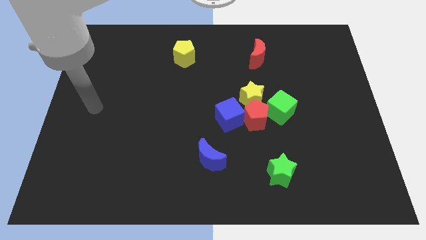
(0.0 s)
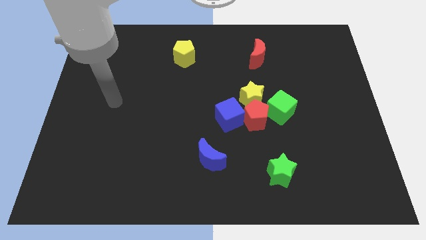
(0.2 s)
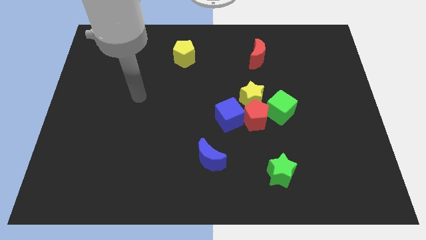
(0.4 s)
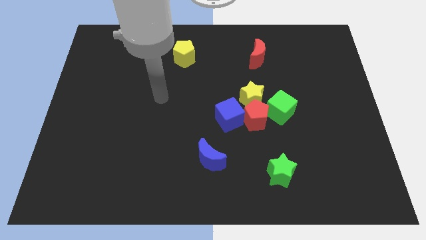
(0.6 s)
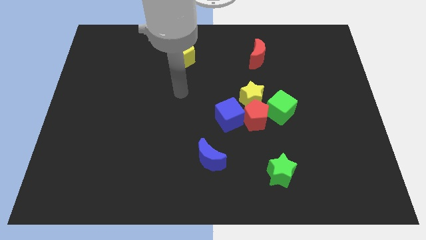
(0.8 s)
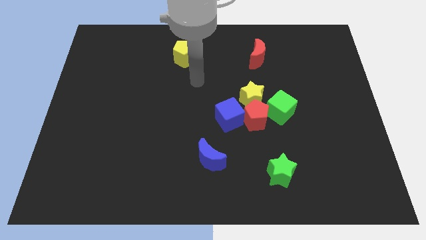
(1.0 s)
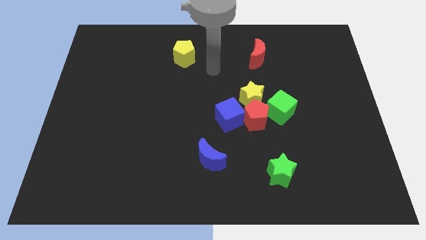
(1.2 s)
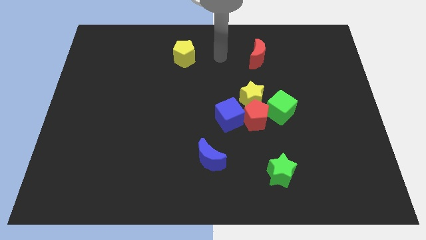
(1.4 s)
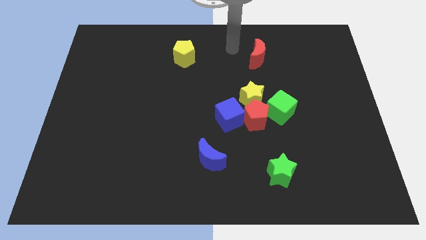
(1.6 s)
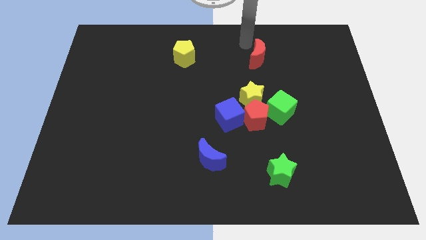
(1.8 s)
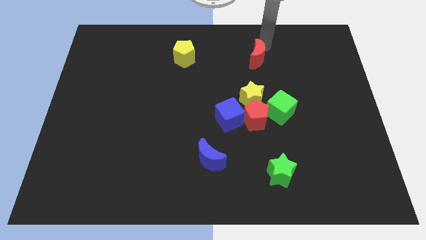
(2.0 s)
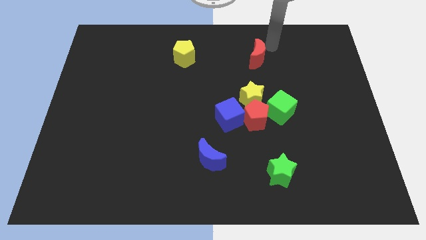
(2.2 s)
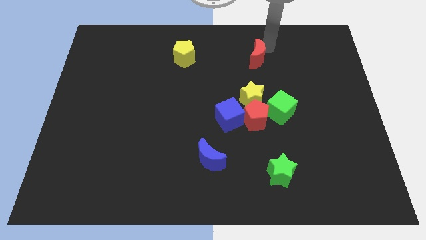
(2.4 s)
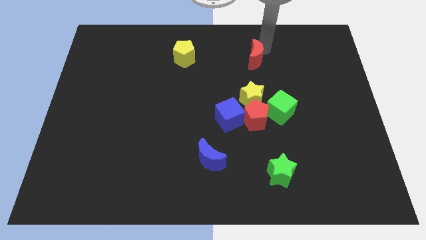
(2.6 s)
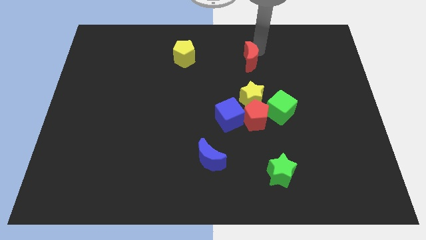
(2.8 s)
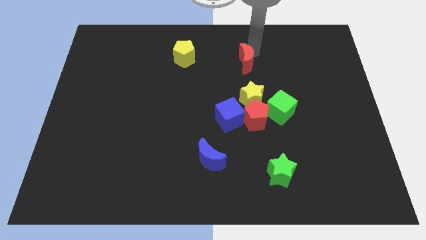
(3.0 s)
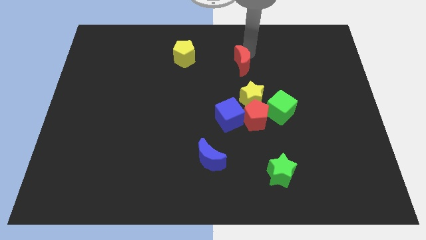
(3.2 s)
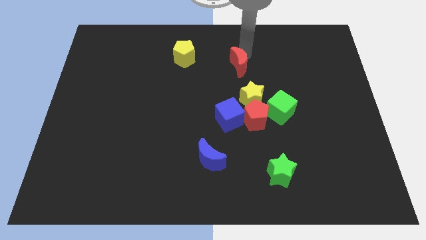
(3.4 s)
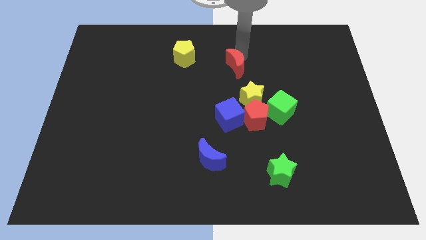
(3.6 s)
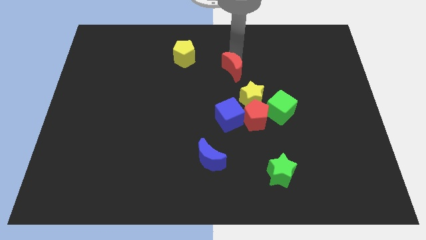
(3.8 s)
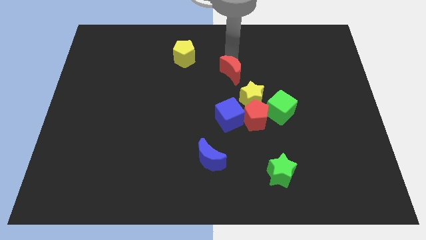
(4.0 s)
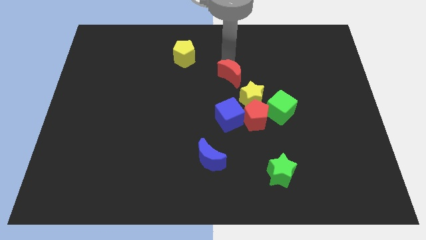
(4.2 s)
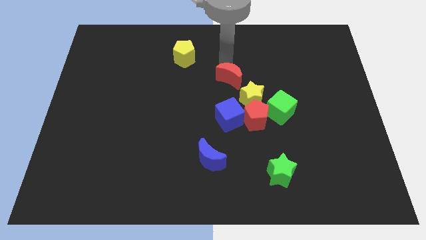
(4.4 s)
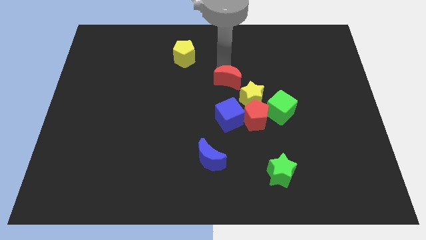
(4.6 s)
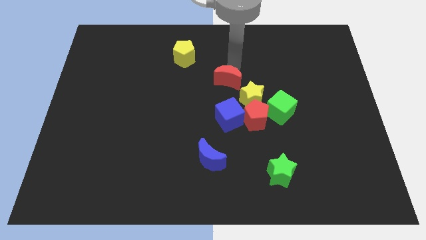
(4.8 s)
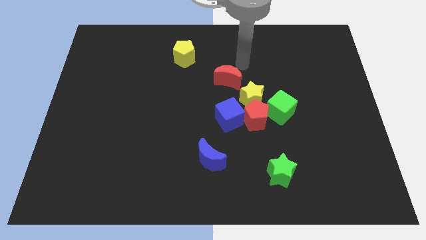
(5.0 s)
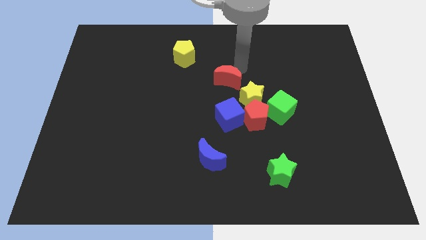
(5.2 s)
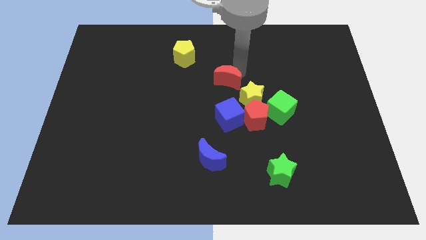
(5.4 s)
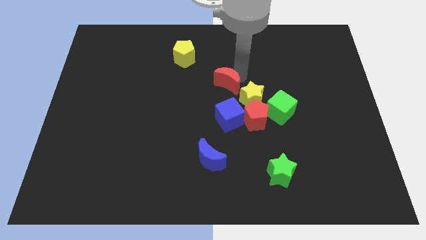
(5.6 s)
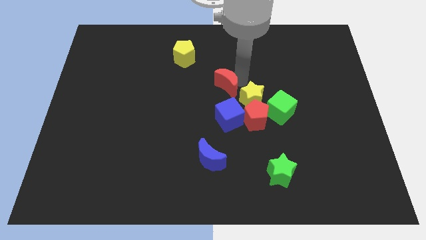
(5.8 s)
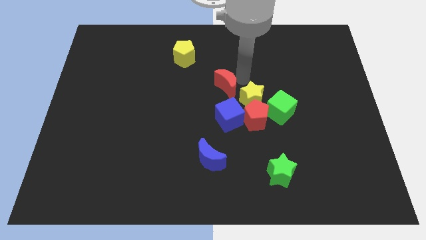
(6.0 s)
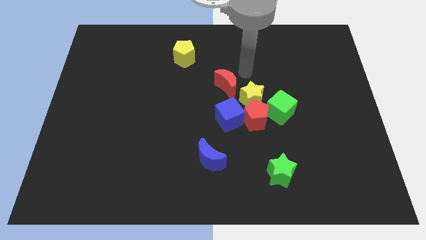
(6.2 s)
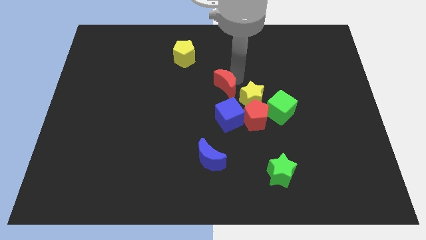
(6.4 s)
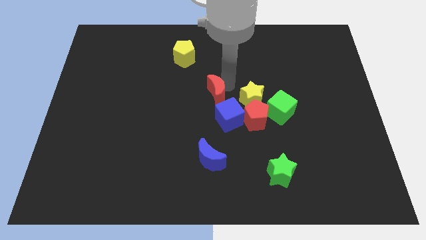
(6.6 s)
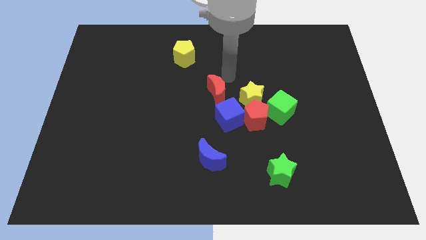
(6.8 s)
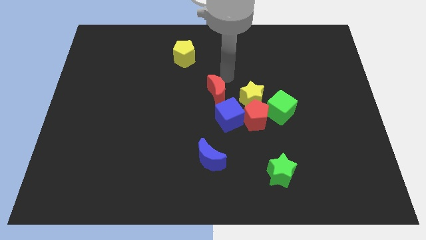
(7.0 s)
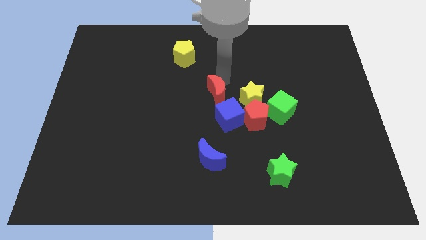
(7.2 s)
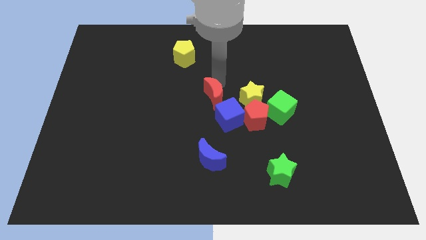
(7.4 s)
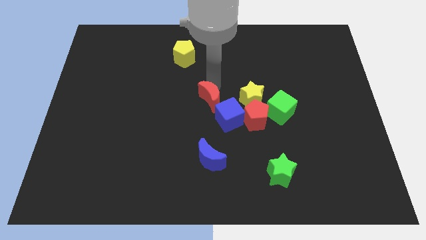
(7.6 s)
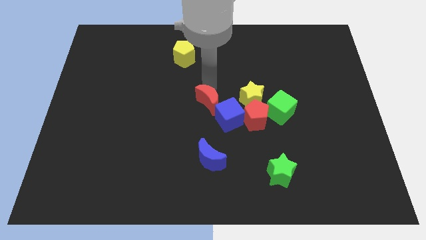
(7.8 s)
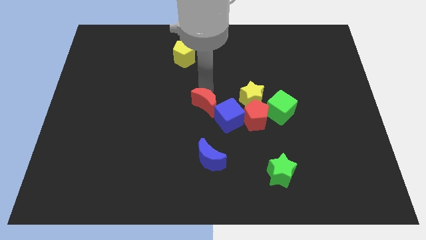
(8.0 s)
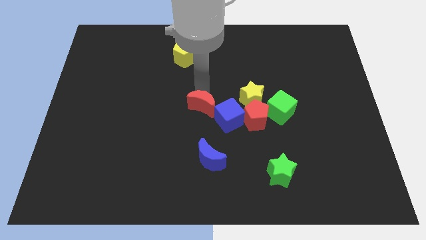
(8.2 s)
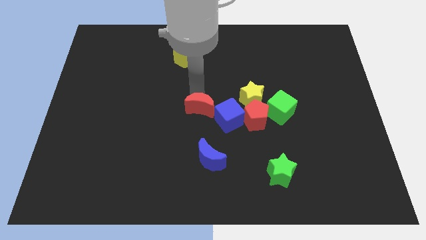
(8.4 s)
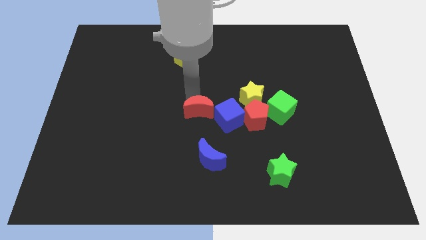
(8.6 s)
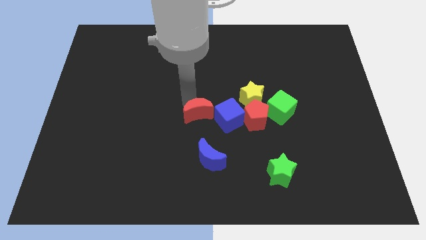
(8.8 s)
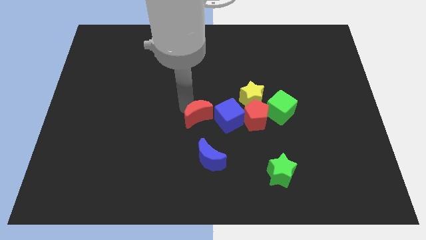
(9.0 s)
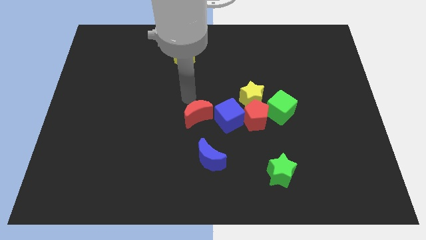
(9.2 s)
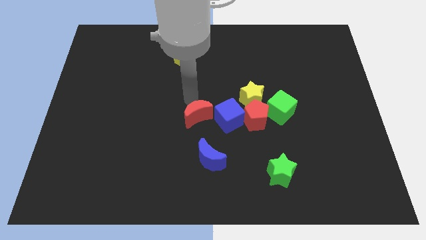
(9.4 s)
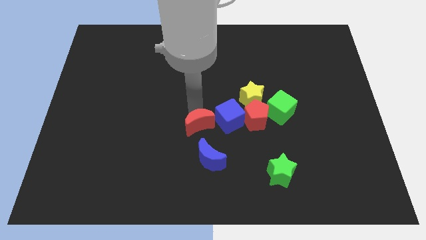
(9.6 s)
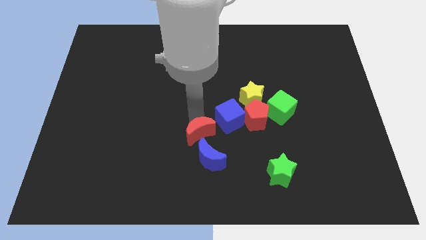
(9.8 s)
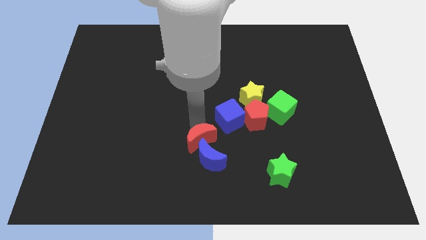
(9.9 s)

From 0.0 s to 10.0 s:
put the red moon to the blue moon

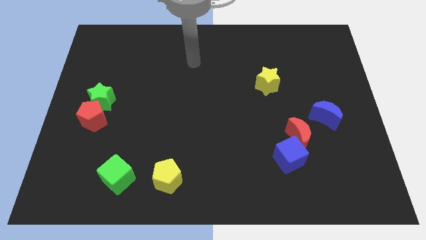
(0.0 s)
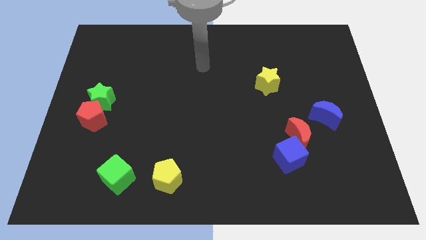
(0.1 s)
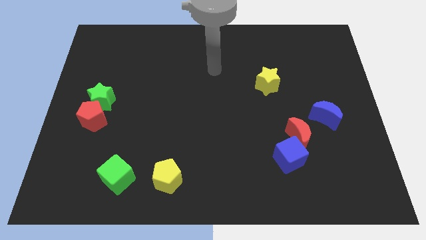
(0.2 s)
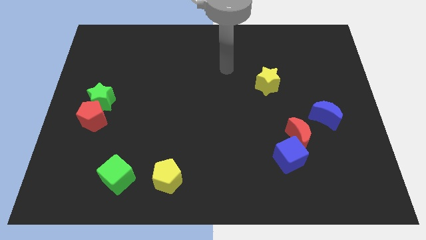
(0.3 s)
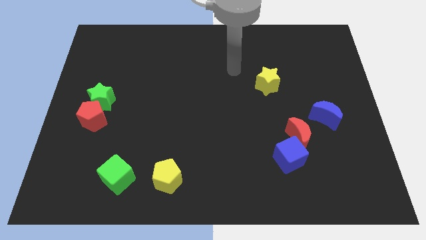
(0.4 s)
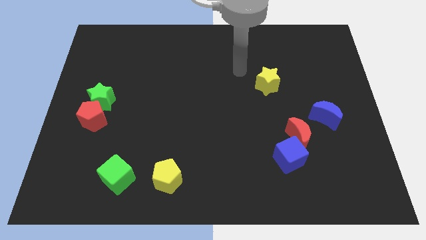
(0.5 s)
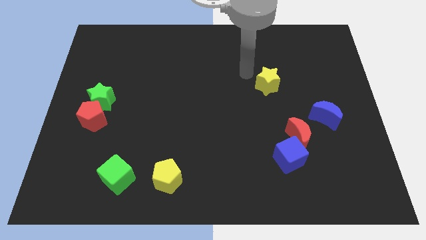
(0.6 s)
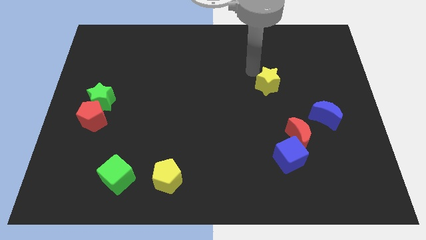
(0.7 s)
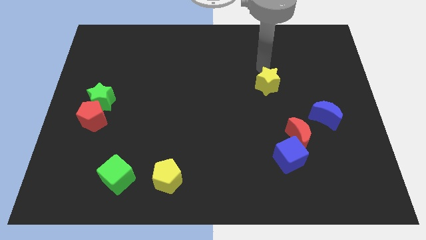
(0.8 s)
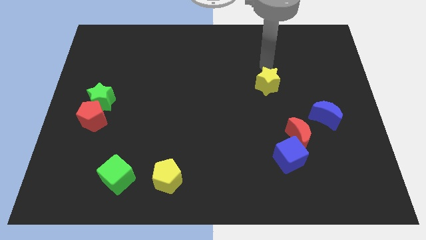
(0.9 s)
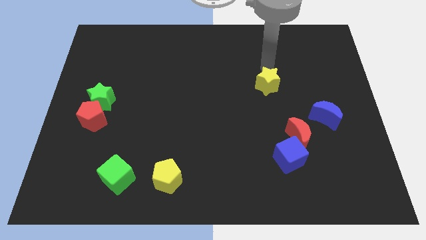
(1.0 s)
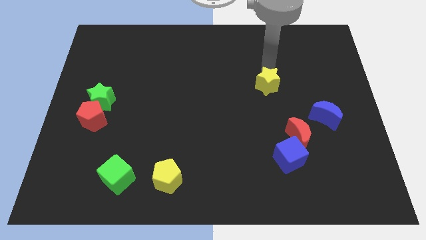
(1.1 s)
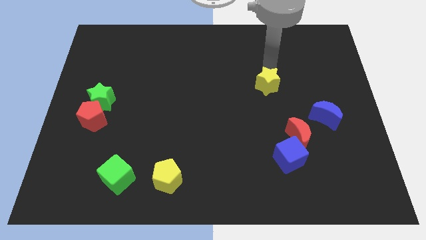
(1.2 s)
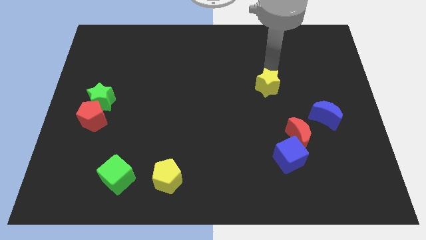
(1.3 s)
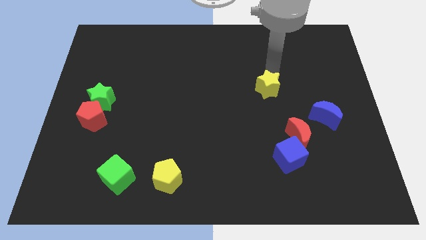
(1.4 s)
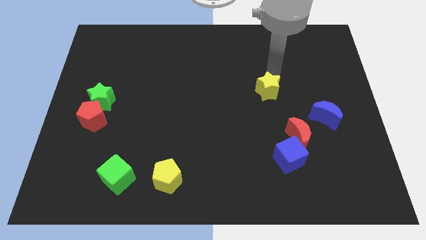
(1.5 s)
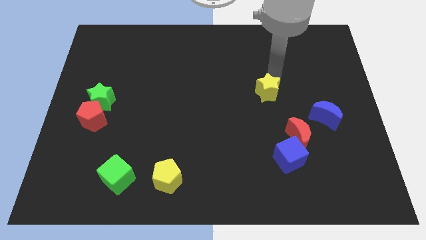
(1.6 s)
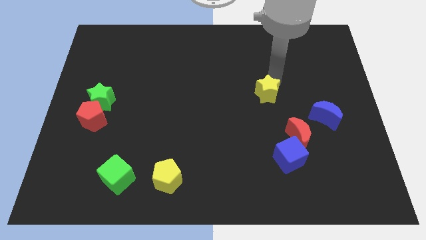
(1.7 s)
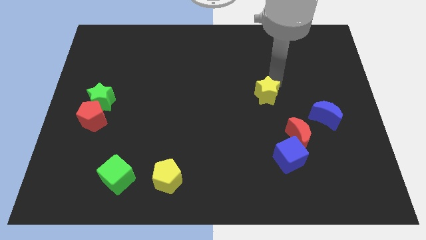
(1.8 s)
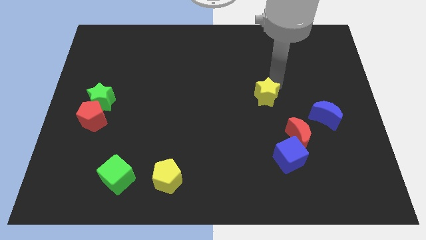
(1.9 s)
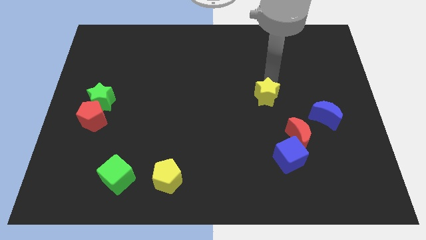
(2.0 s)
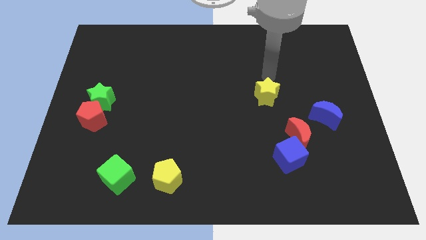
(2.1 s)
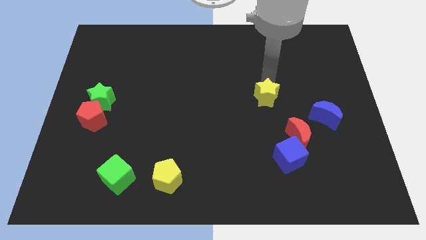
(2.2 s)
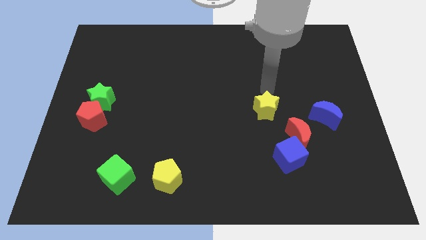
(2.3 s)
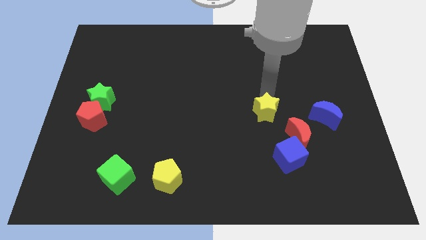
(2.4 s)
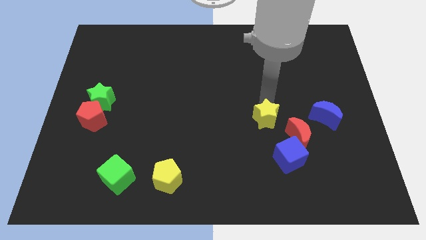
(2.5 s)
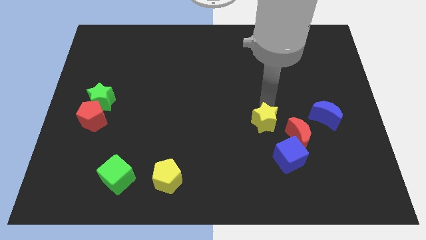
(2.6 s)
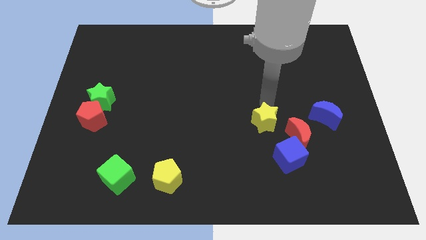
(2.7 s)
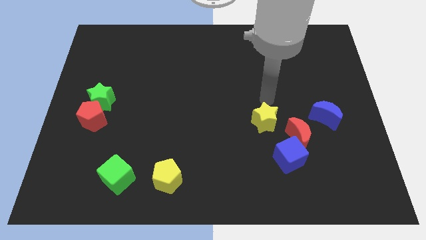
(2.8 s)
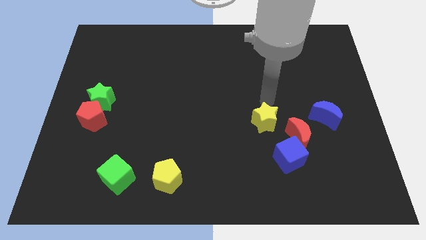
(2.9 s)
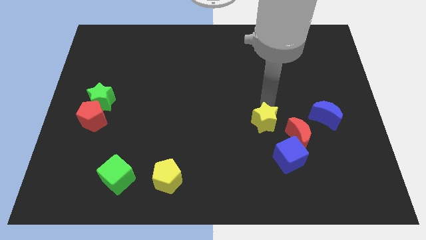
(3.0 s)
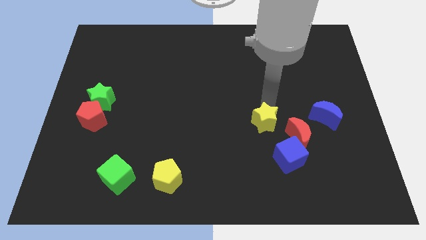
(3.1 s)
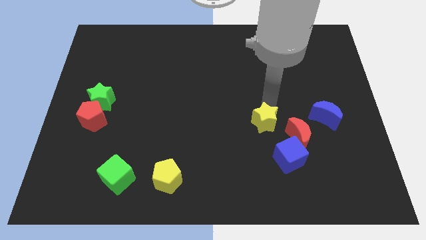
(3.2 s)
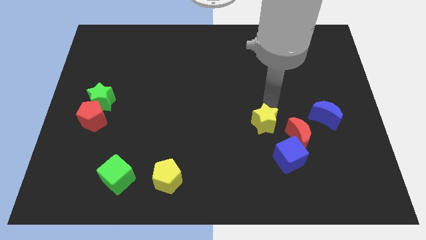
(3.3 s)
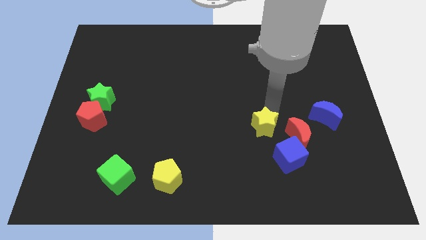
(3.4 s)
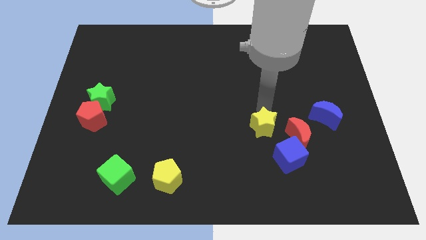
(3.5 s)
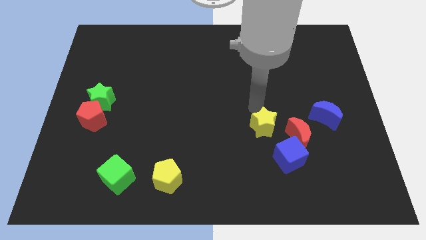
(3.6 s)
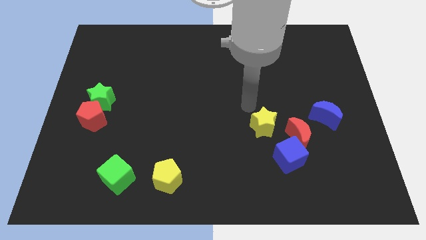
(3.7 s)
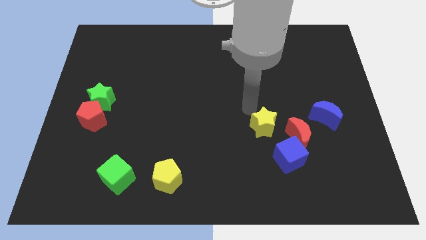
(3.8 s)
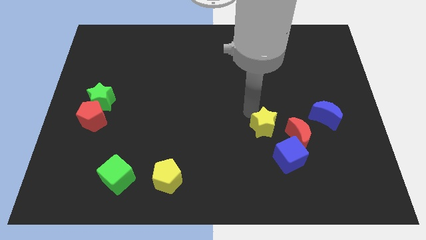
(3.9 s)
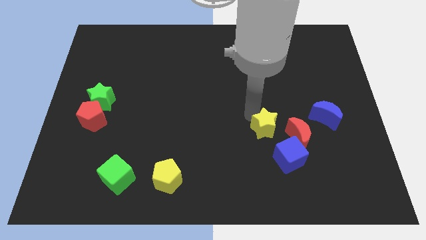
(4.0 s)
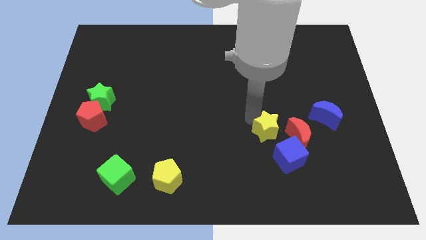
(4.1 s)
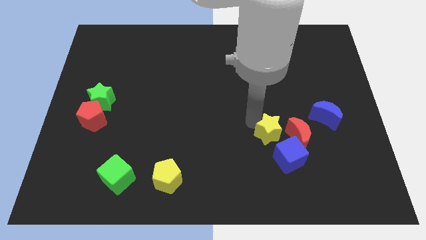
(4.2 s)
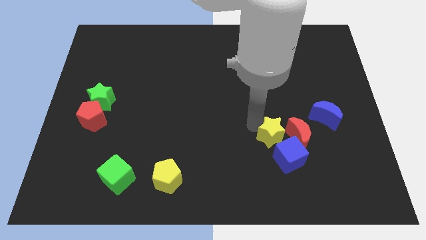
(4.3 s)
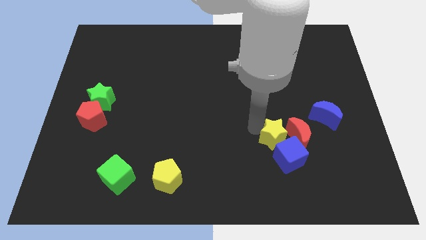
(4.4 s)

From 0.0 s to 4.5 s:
push the yellow star close to the blue cube
